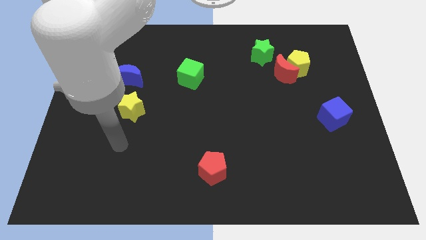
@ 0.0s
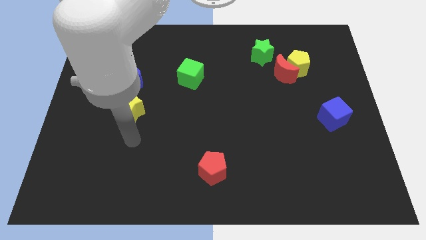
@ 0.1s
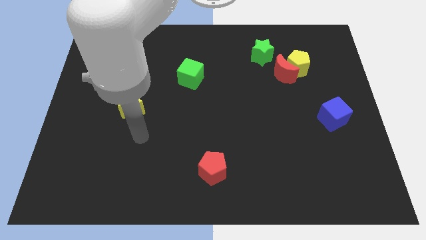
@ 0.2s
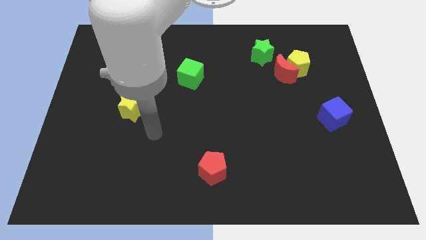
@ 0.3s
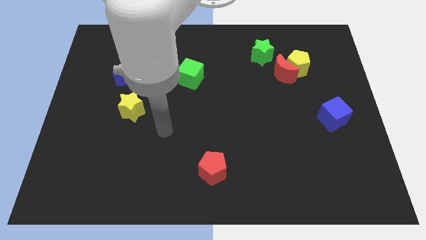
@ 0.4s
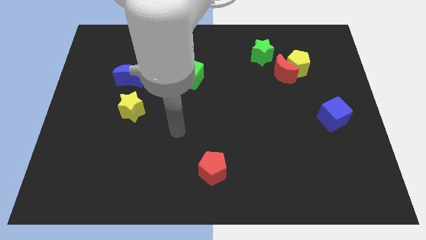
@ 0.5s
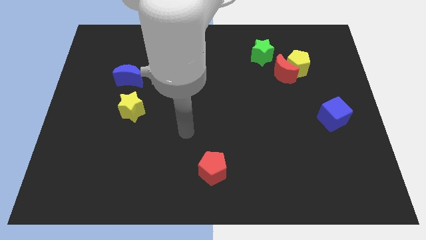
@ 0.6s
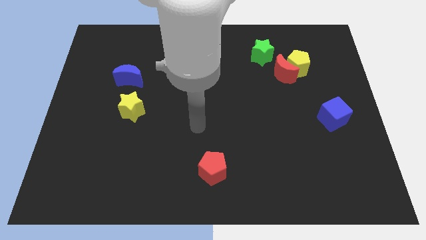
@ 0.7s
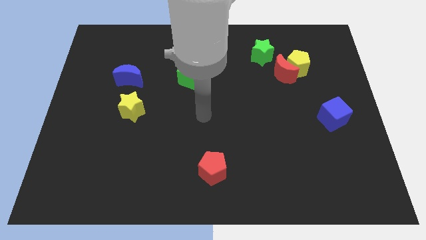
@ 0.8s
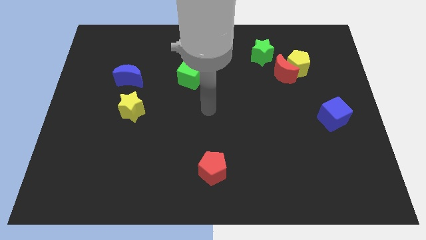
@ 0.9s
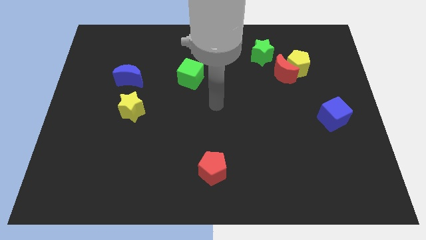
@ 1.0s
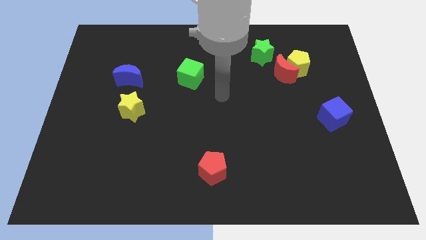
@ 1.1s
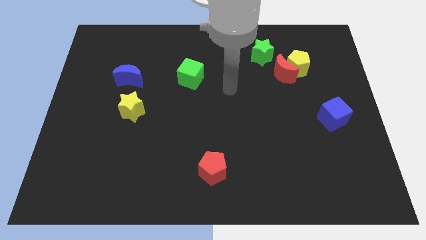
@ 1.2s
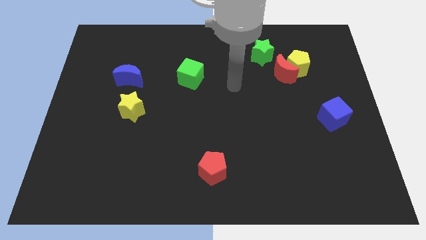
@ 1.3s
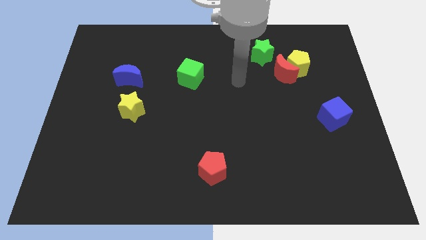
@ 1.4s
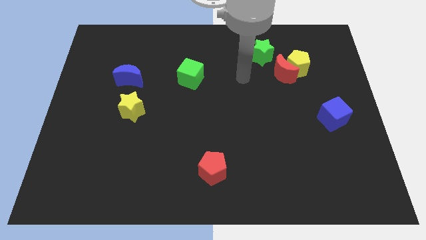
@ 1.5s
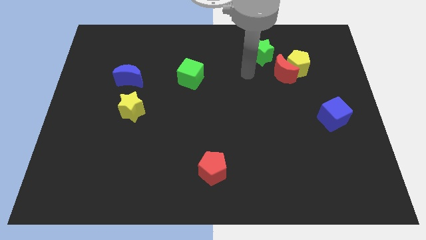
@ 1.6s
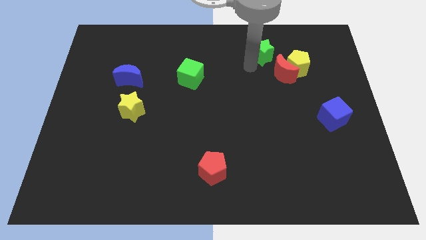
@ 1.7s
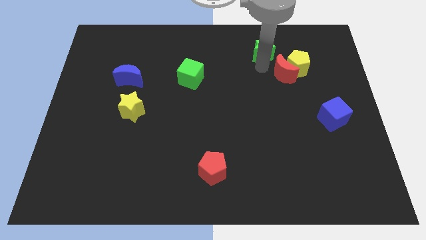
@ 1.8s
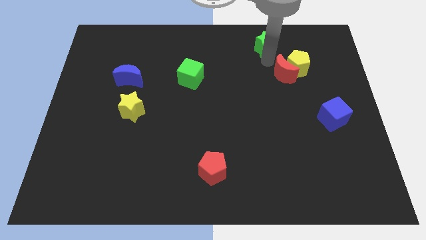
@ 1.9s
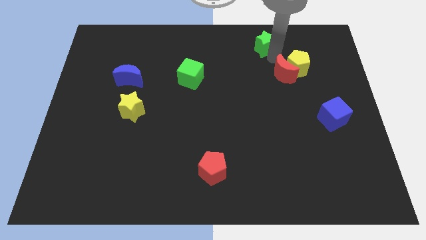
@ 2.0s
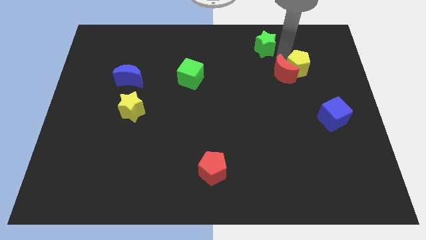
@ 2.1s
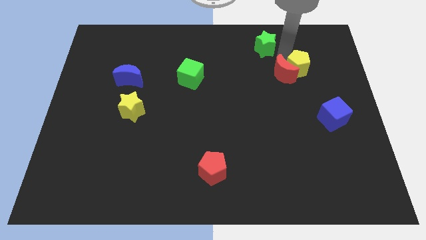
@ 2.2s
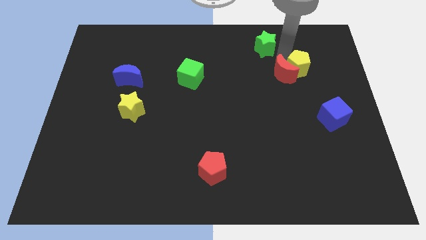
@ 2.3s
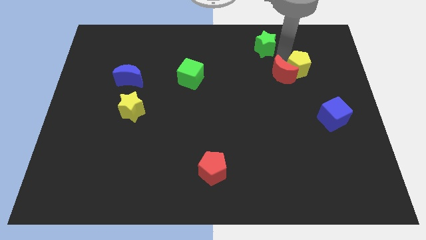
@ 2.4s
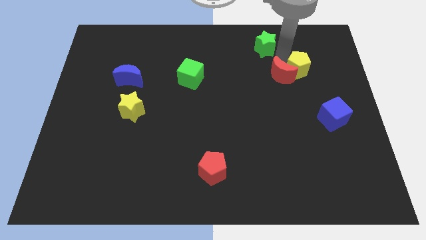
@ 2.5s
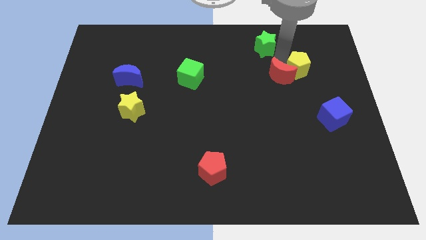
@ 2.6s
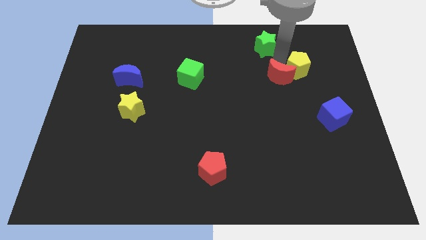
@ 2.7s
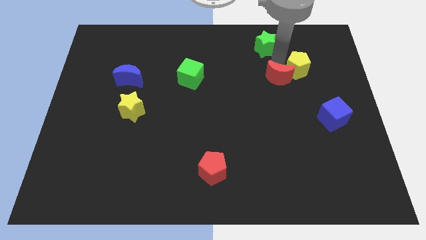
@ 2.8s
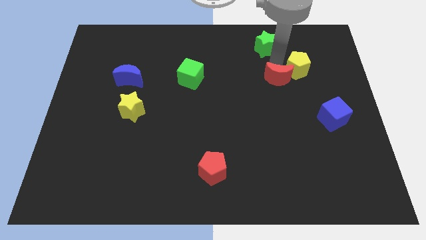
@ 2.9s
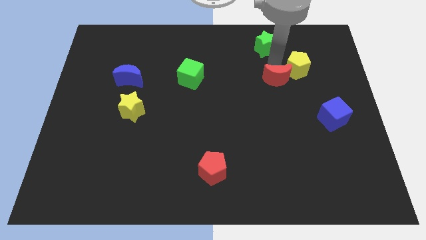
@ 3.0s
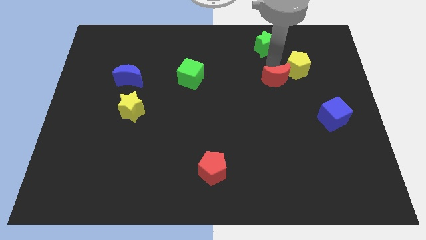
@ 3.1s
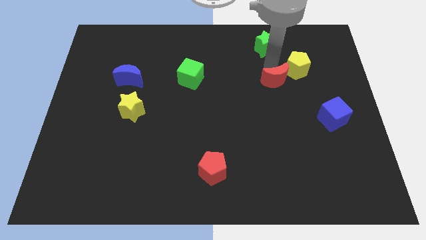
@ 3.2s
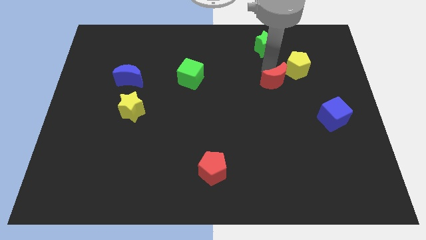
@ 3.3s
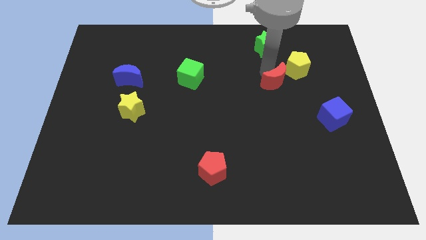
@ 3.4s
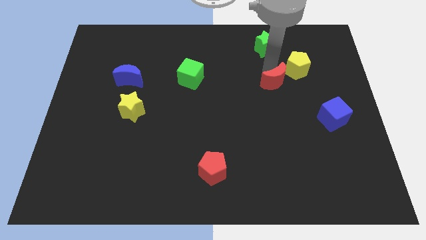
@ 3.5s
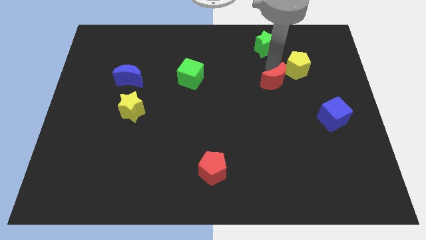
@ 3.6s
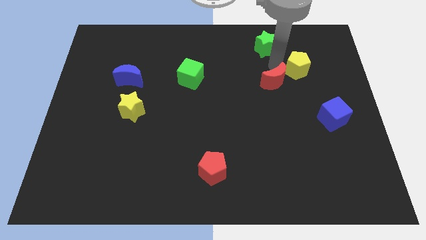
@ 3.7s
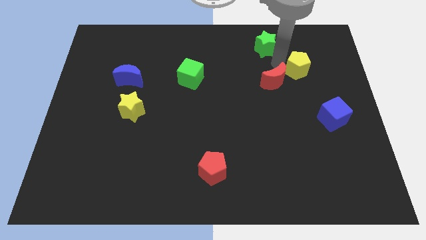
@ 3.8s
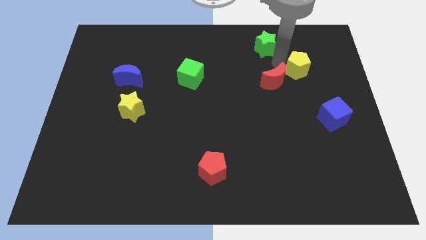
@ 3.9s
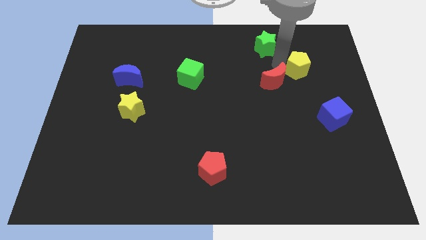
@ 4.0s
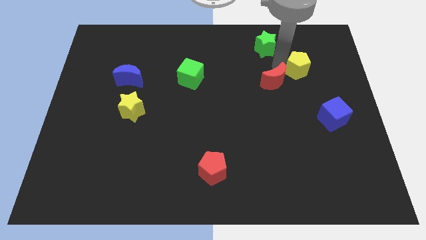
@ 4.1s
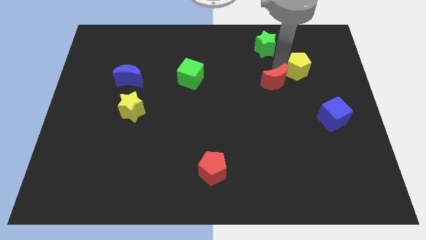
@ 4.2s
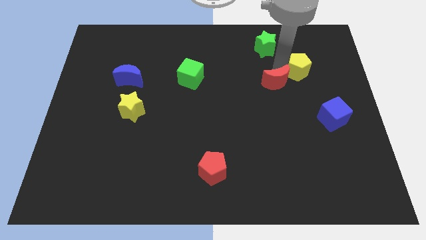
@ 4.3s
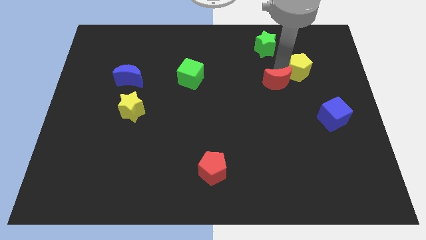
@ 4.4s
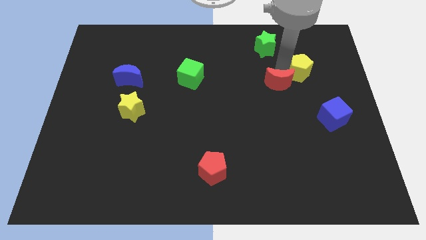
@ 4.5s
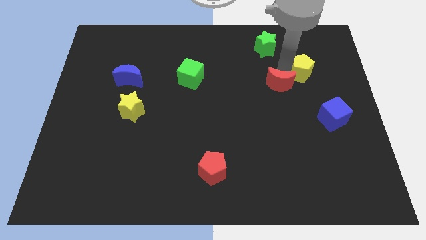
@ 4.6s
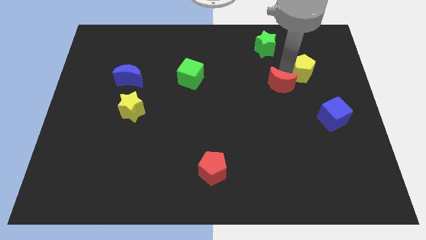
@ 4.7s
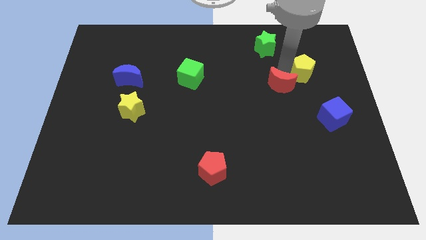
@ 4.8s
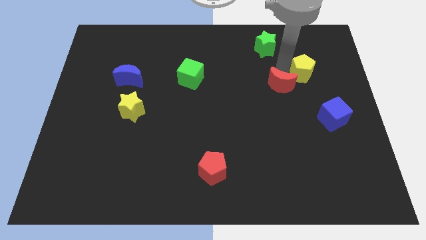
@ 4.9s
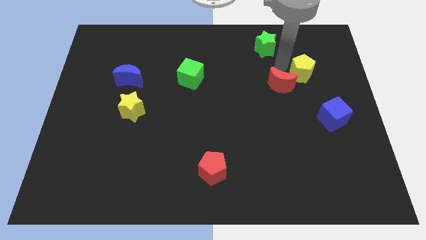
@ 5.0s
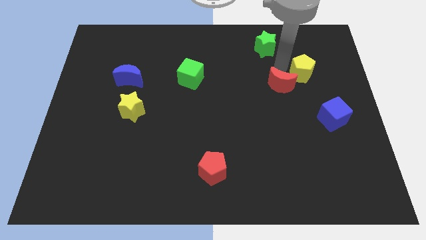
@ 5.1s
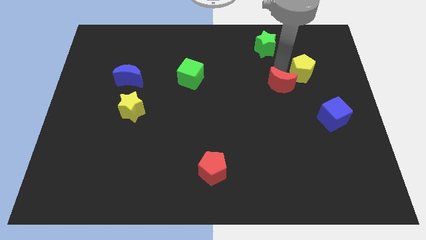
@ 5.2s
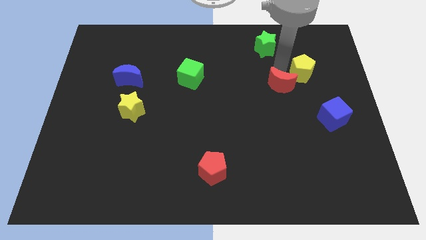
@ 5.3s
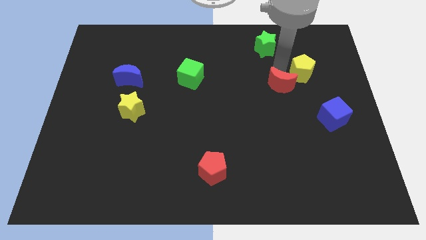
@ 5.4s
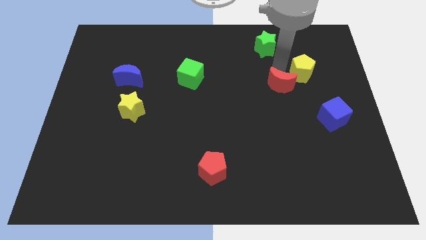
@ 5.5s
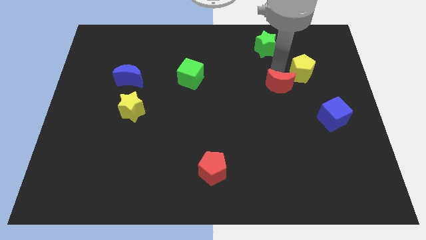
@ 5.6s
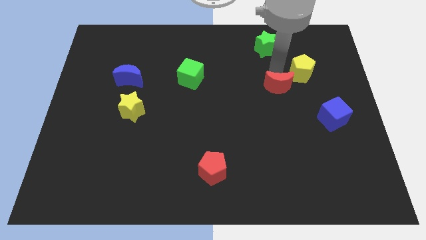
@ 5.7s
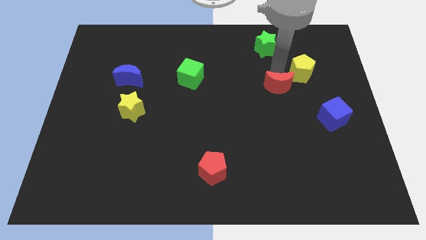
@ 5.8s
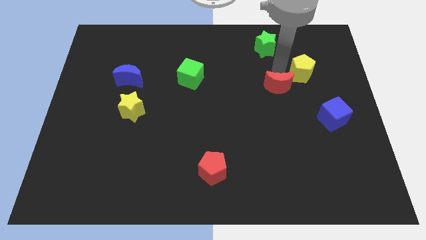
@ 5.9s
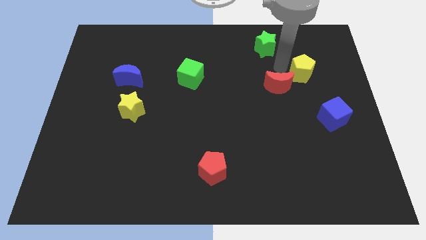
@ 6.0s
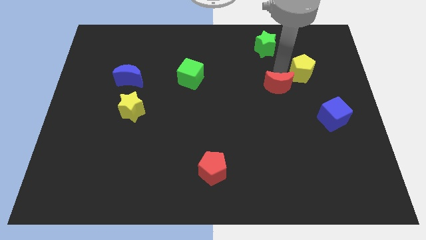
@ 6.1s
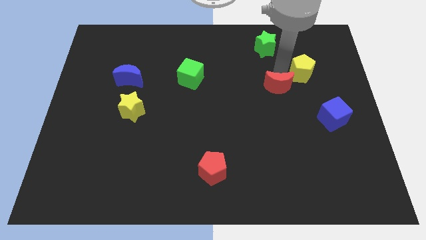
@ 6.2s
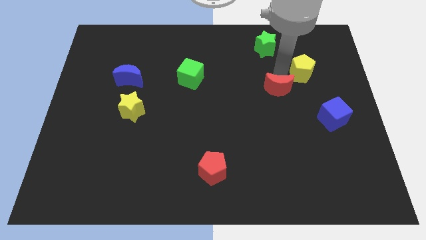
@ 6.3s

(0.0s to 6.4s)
separate the red moon from the yellow pentagon and green star

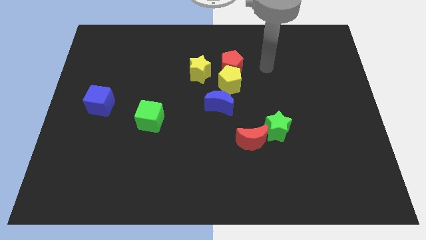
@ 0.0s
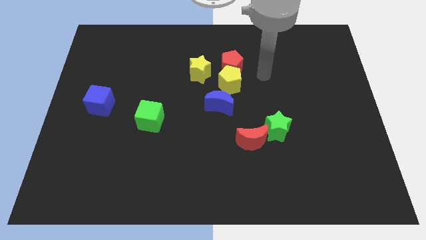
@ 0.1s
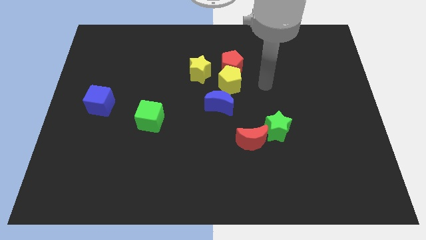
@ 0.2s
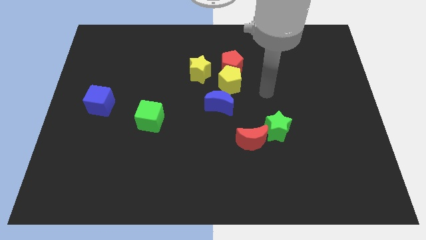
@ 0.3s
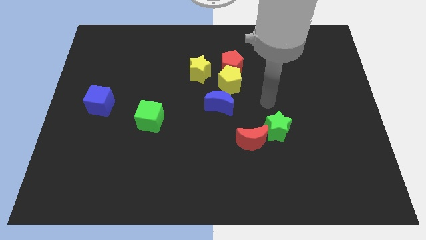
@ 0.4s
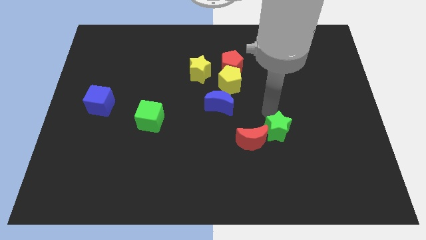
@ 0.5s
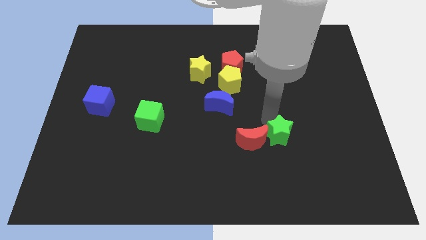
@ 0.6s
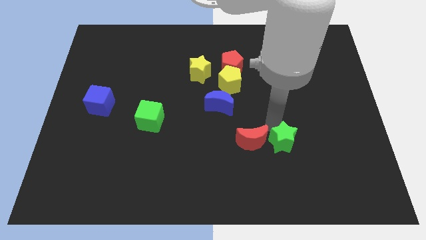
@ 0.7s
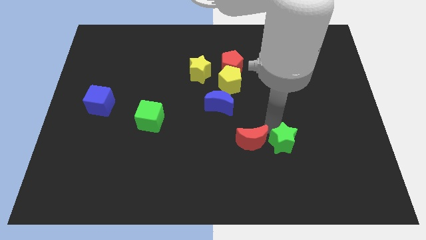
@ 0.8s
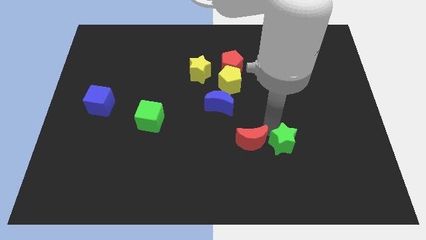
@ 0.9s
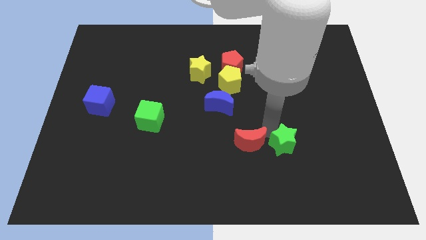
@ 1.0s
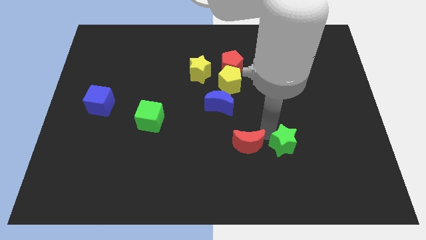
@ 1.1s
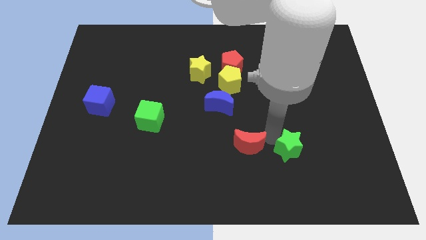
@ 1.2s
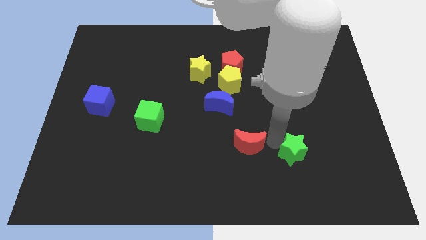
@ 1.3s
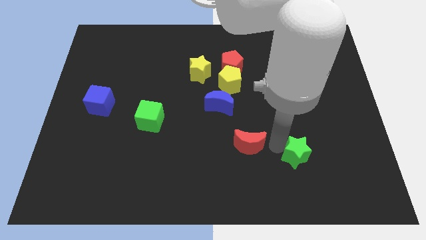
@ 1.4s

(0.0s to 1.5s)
separate the red moon from the green star

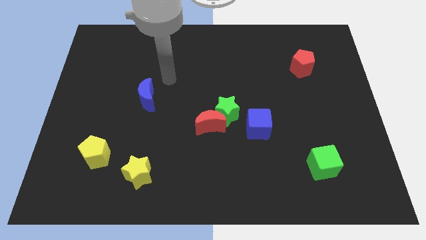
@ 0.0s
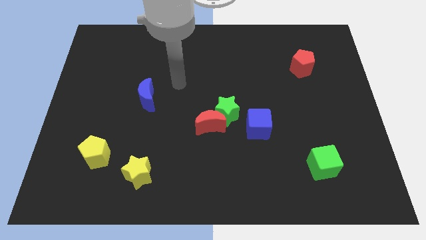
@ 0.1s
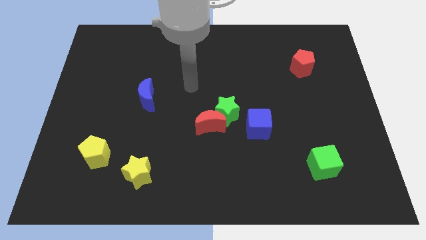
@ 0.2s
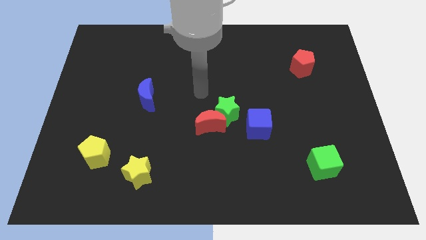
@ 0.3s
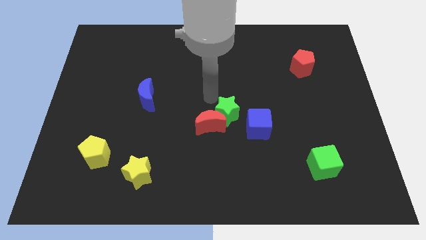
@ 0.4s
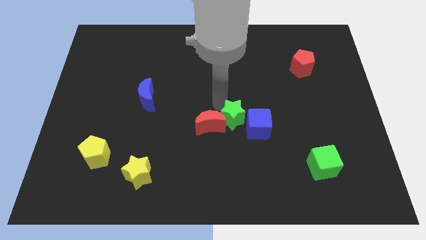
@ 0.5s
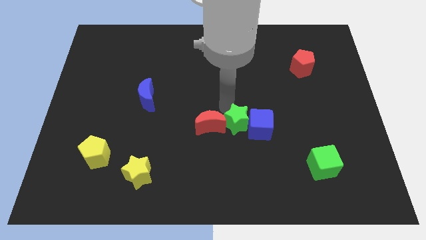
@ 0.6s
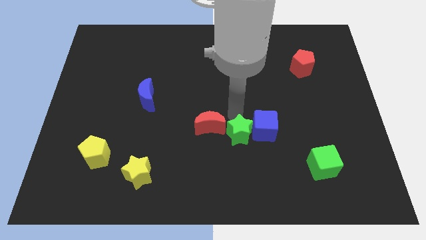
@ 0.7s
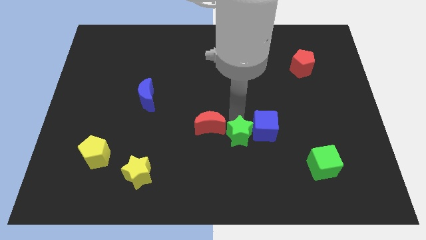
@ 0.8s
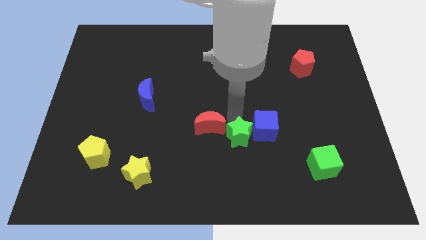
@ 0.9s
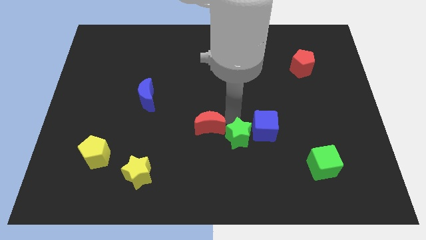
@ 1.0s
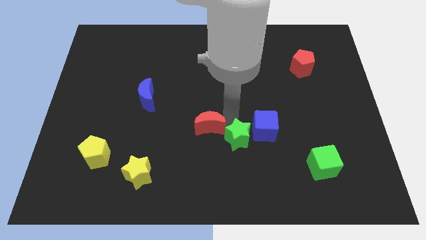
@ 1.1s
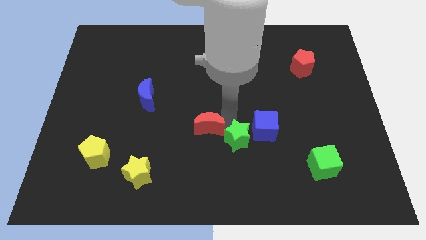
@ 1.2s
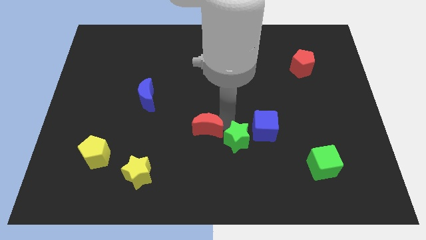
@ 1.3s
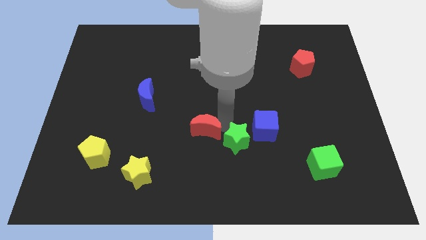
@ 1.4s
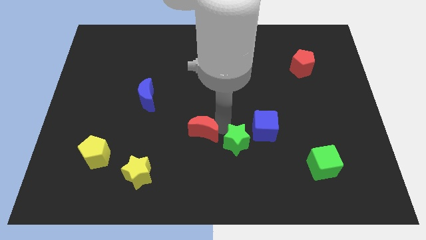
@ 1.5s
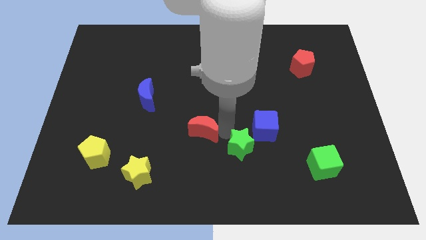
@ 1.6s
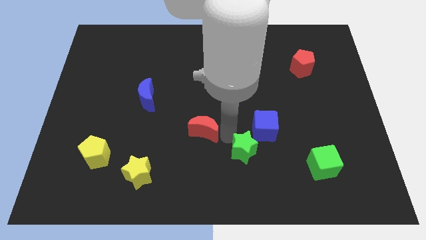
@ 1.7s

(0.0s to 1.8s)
pull the red moon apart from the green star
